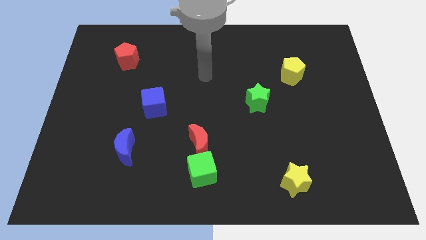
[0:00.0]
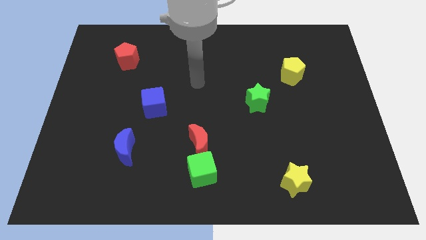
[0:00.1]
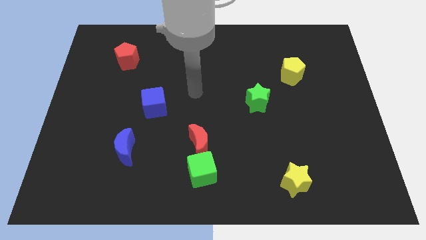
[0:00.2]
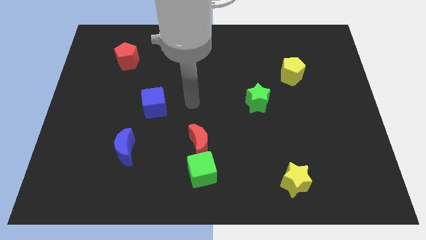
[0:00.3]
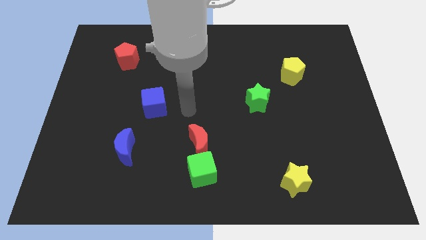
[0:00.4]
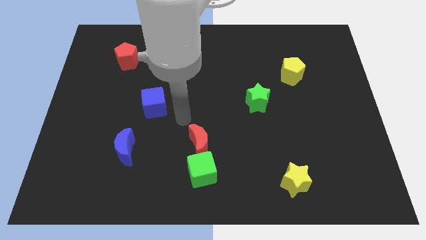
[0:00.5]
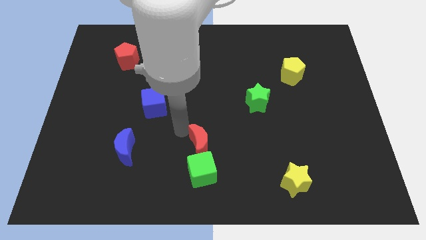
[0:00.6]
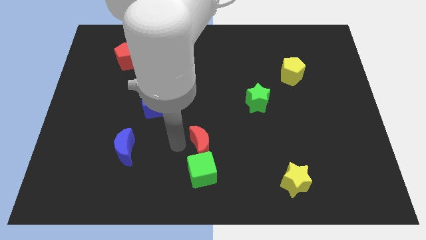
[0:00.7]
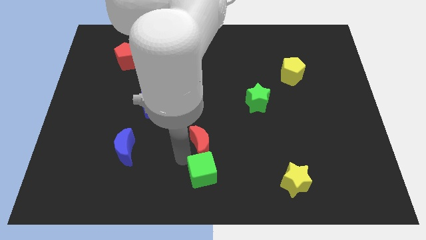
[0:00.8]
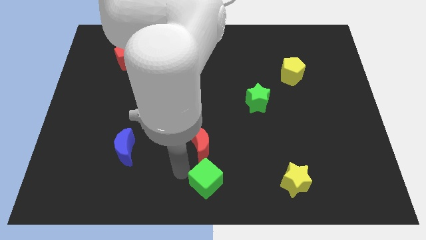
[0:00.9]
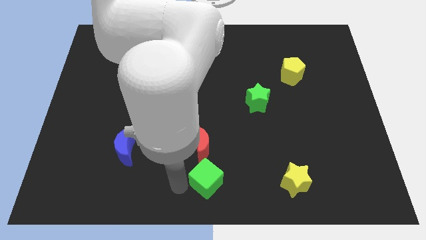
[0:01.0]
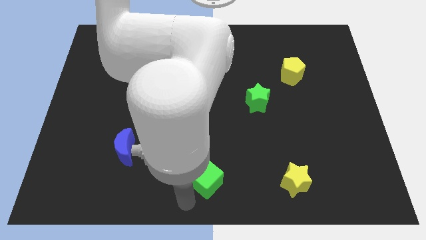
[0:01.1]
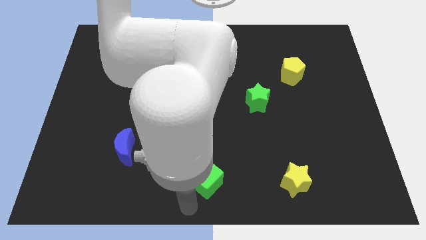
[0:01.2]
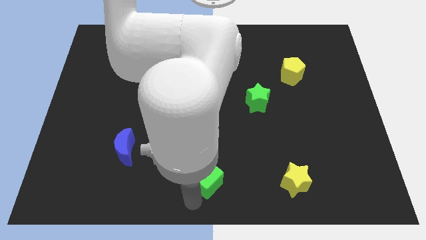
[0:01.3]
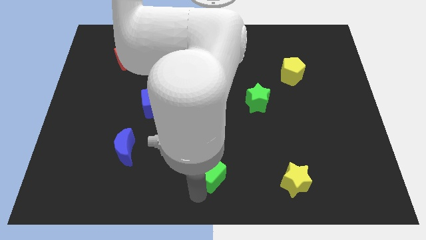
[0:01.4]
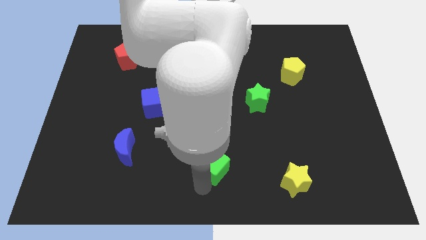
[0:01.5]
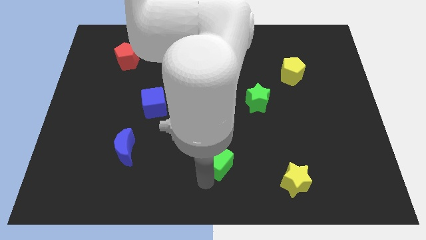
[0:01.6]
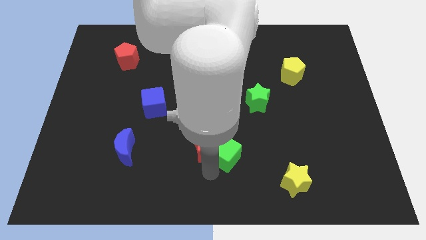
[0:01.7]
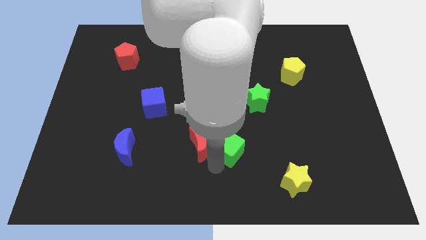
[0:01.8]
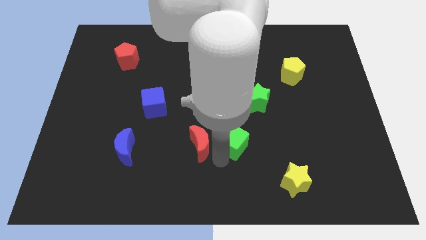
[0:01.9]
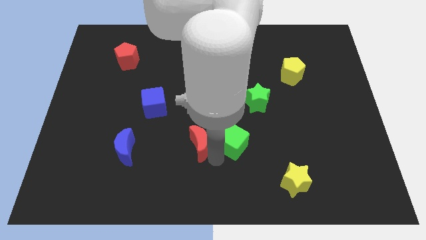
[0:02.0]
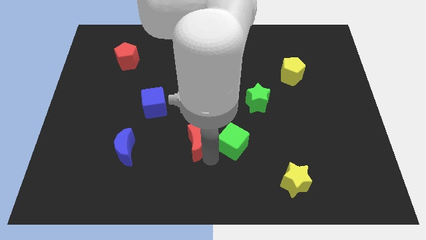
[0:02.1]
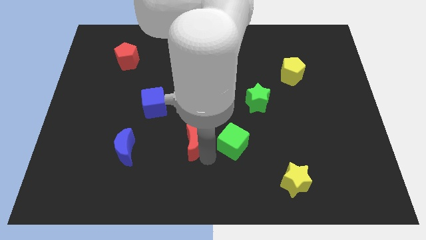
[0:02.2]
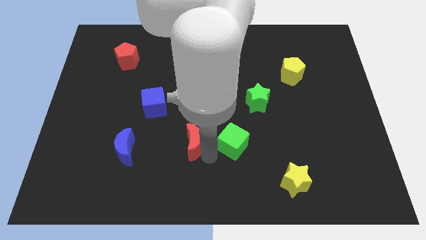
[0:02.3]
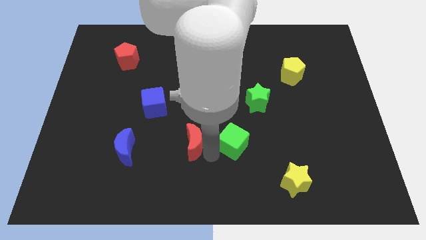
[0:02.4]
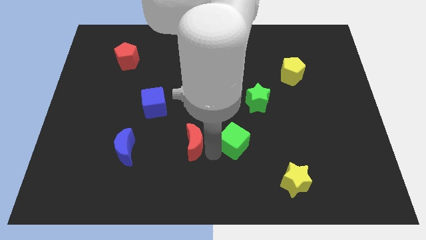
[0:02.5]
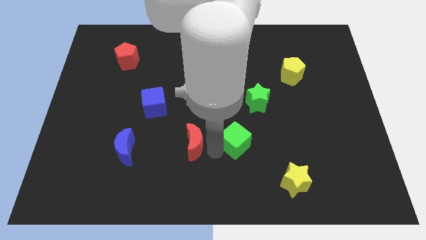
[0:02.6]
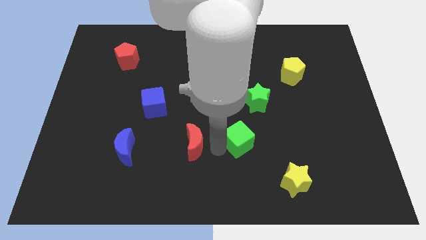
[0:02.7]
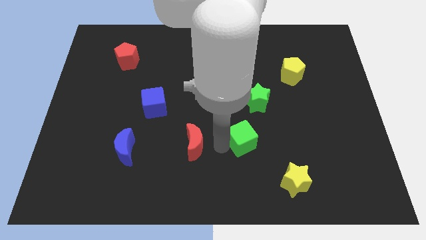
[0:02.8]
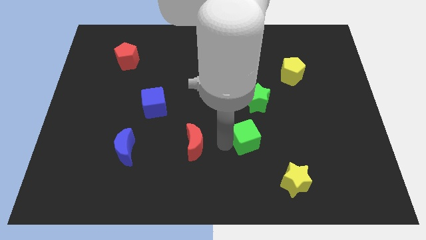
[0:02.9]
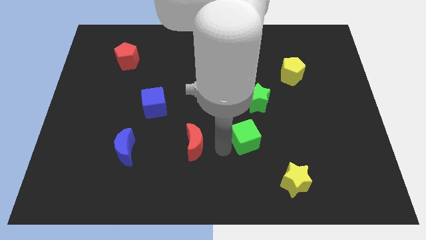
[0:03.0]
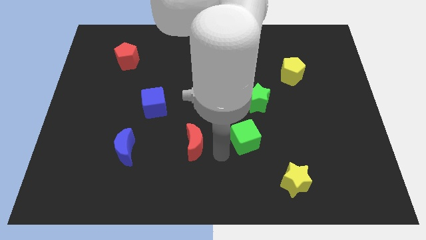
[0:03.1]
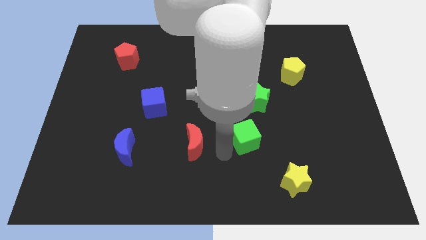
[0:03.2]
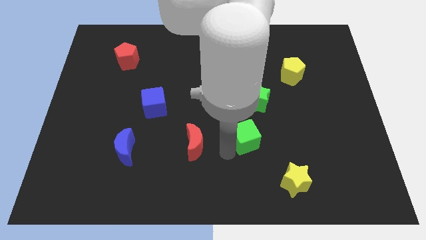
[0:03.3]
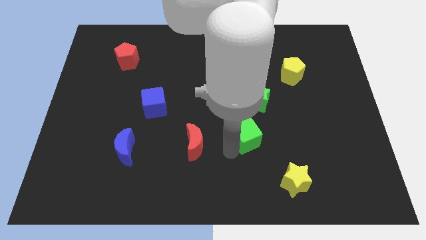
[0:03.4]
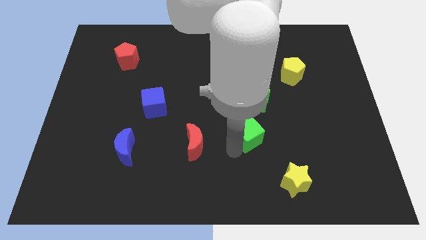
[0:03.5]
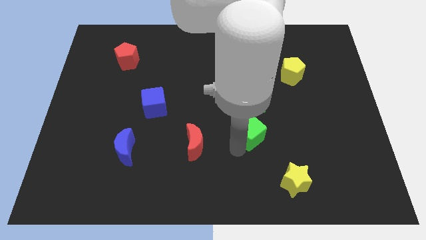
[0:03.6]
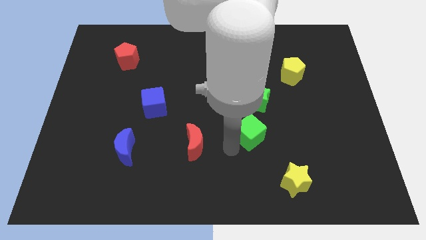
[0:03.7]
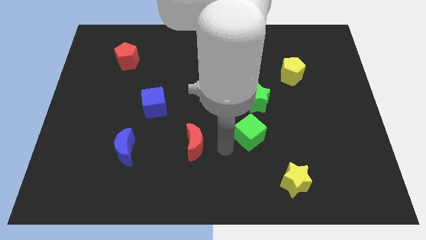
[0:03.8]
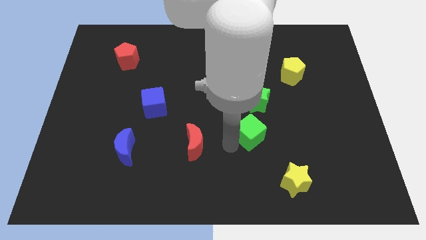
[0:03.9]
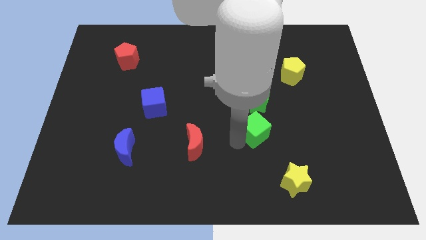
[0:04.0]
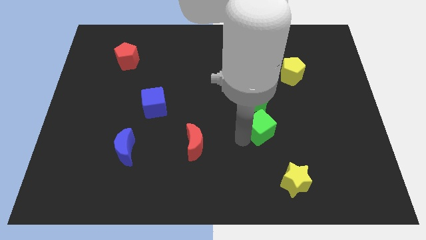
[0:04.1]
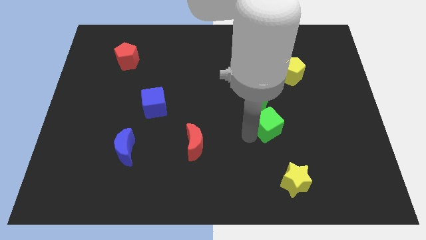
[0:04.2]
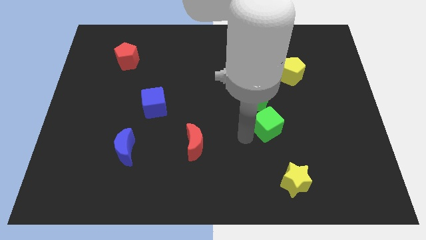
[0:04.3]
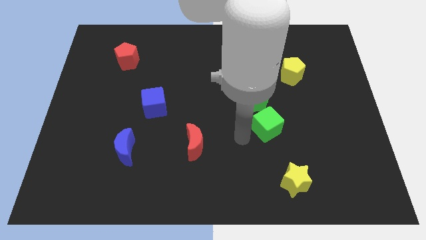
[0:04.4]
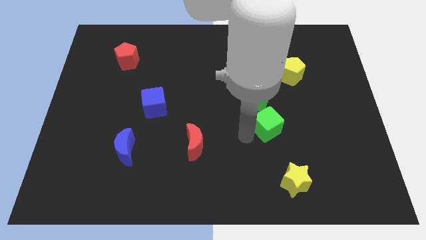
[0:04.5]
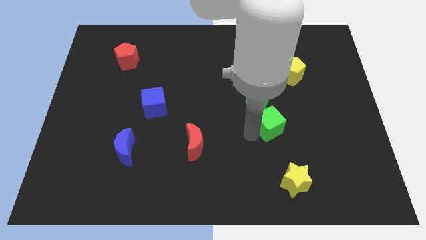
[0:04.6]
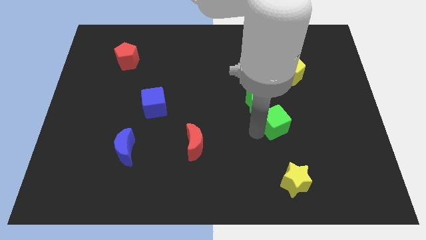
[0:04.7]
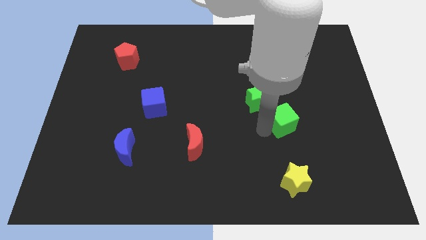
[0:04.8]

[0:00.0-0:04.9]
push the green cube diagonally up and to the right

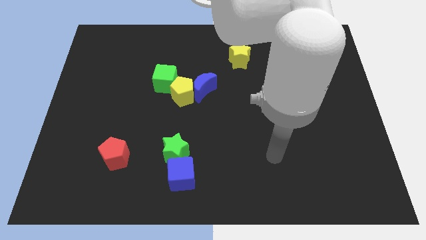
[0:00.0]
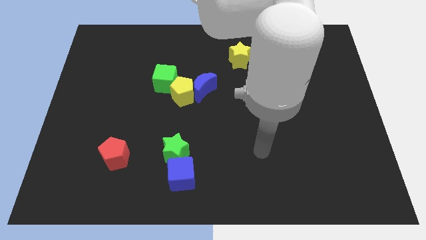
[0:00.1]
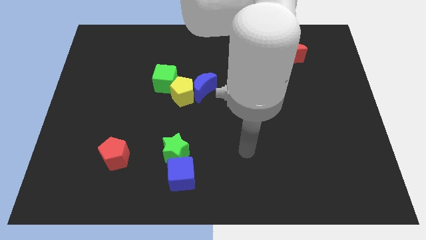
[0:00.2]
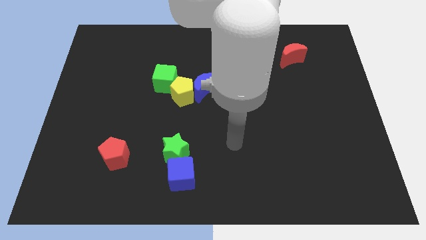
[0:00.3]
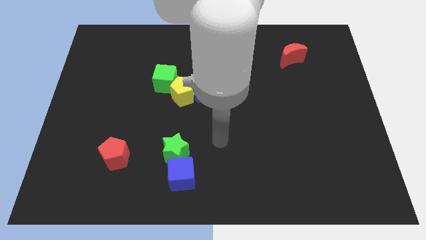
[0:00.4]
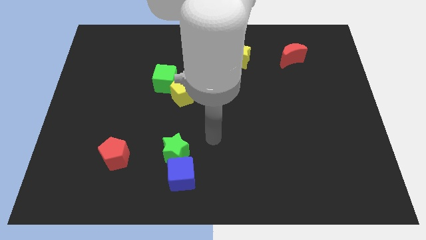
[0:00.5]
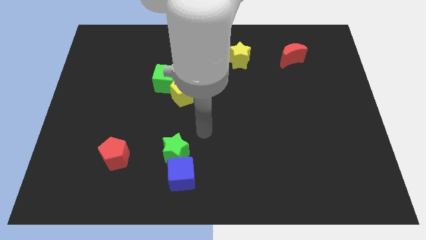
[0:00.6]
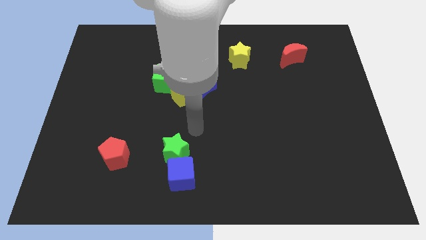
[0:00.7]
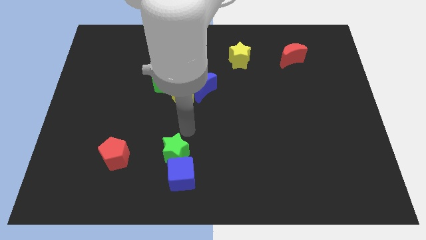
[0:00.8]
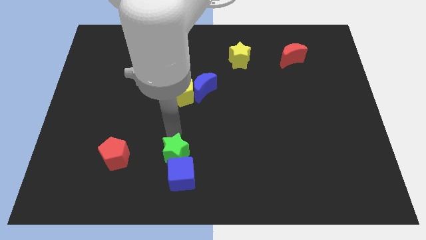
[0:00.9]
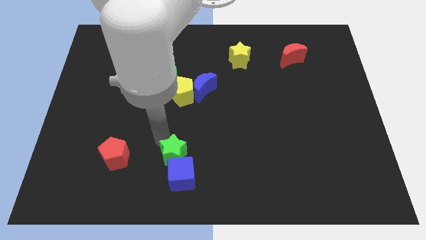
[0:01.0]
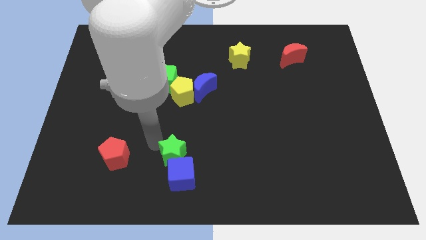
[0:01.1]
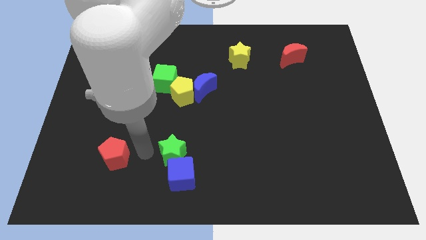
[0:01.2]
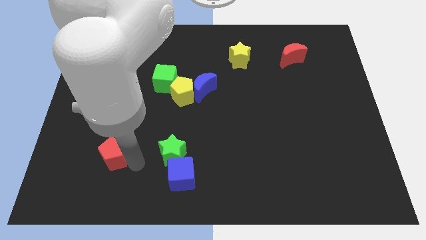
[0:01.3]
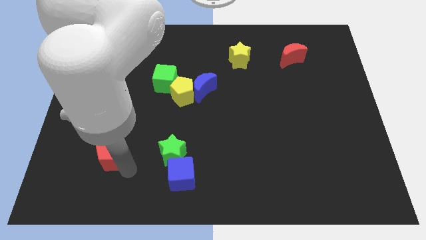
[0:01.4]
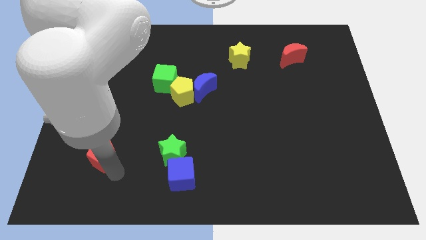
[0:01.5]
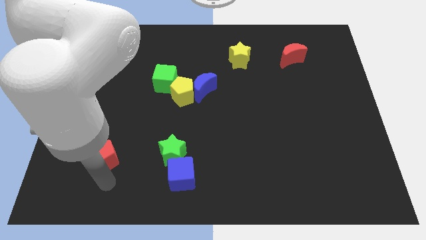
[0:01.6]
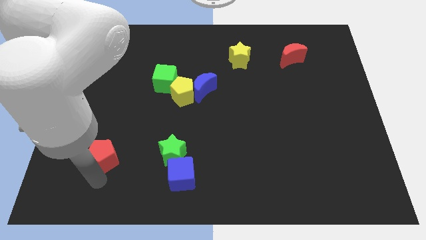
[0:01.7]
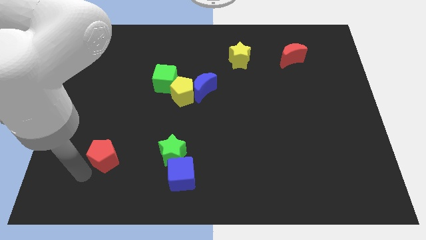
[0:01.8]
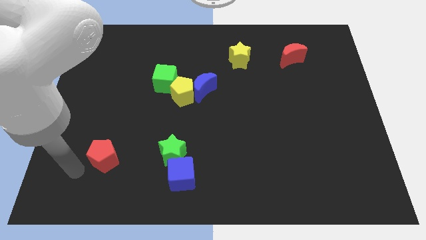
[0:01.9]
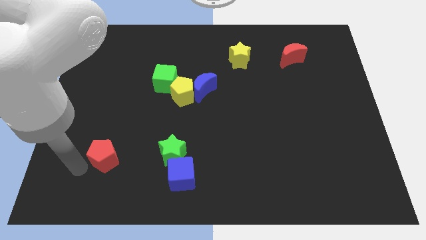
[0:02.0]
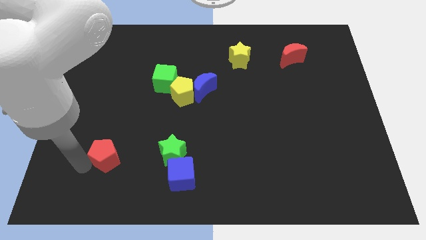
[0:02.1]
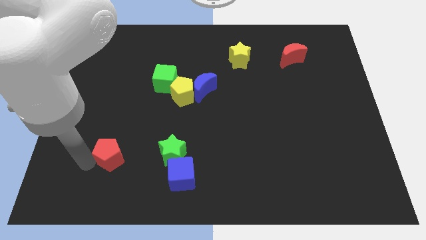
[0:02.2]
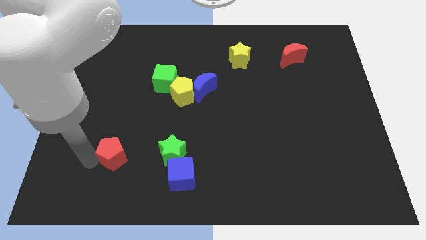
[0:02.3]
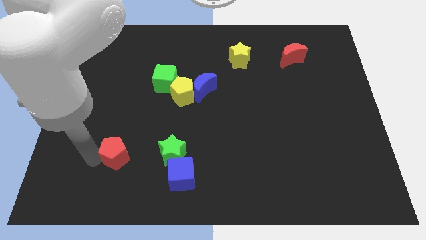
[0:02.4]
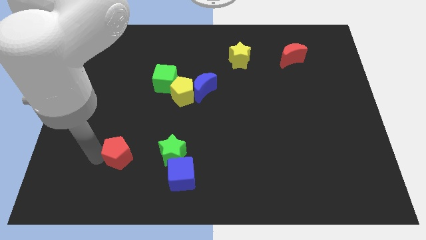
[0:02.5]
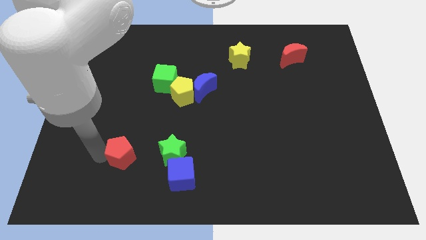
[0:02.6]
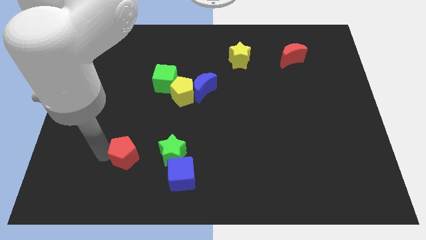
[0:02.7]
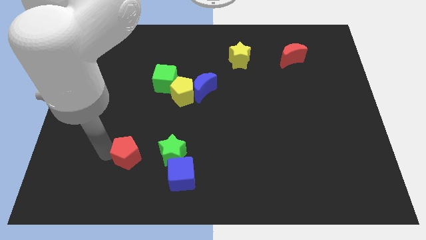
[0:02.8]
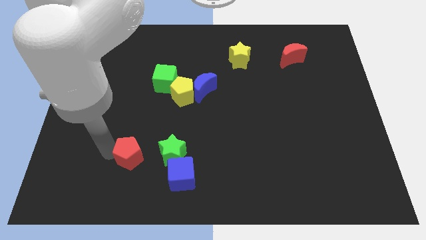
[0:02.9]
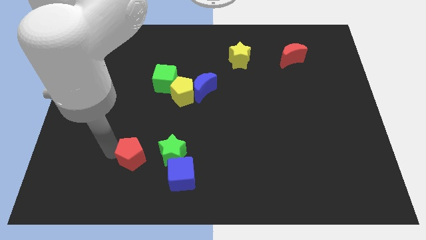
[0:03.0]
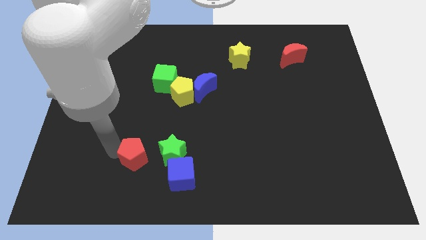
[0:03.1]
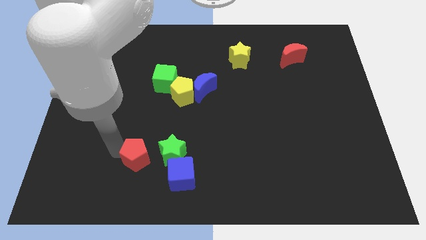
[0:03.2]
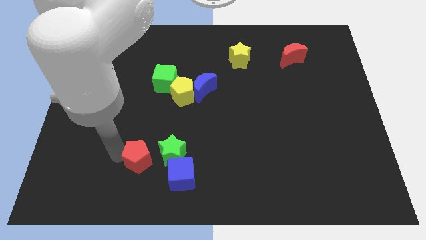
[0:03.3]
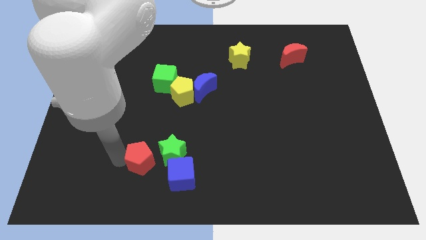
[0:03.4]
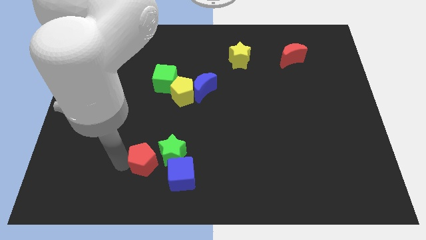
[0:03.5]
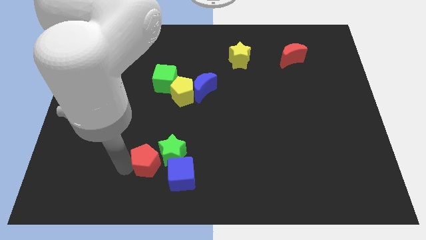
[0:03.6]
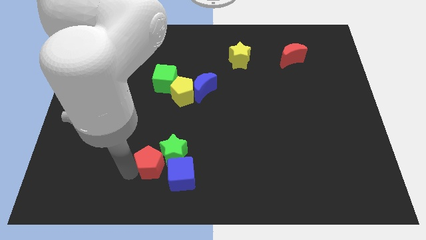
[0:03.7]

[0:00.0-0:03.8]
slide the red pentagon a bit to the right
